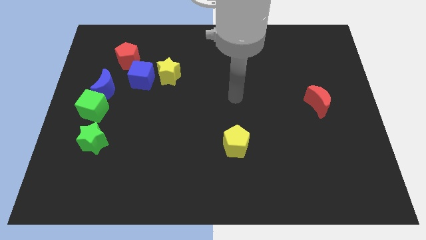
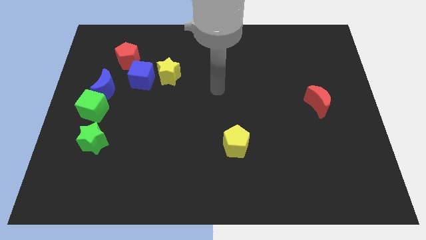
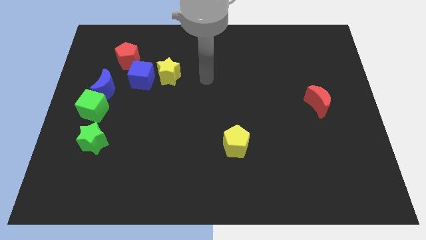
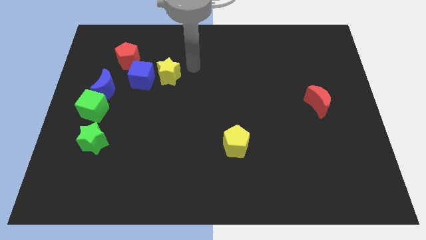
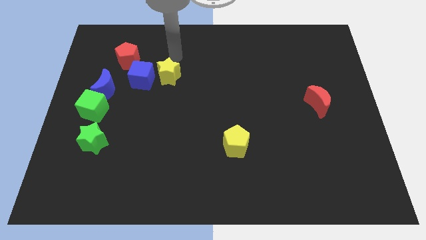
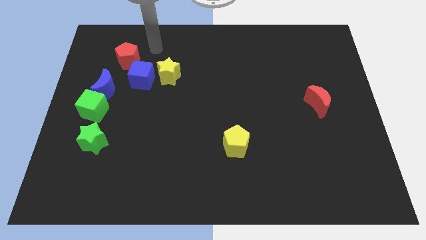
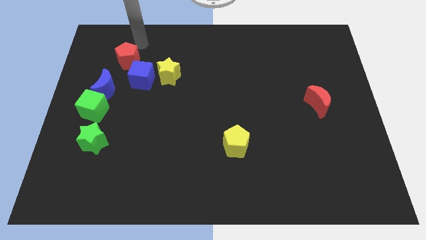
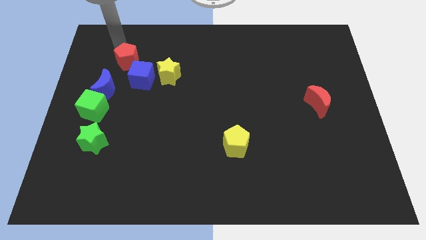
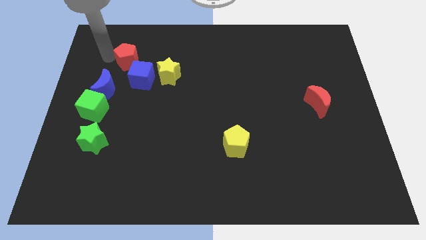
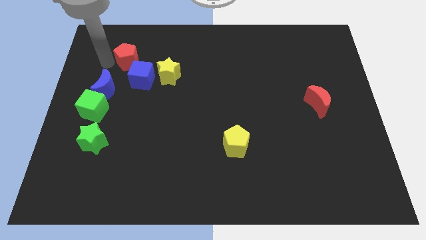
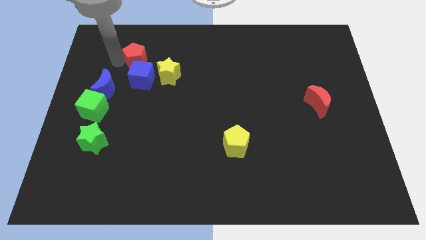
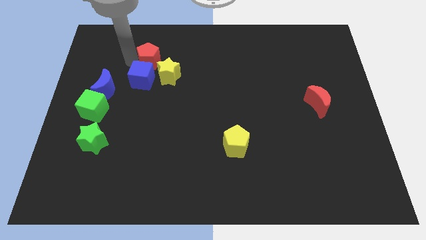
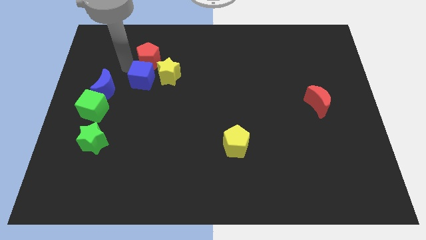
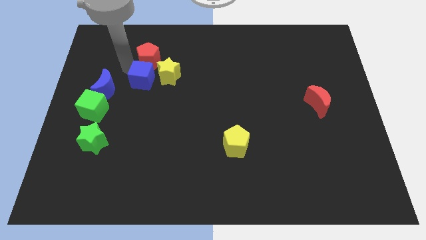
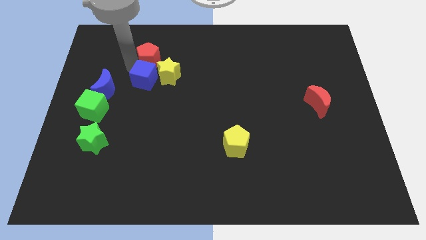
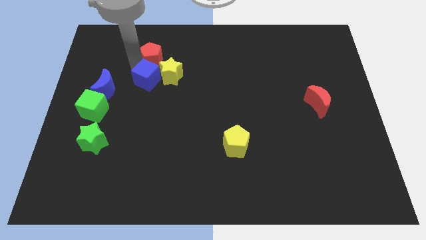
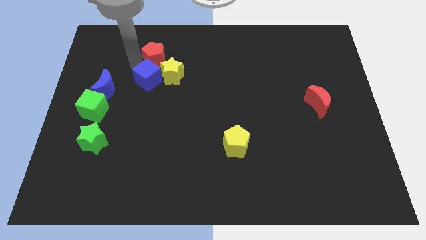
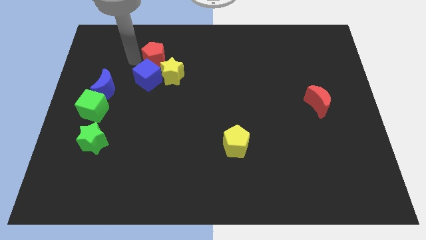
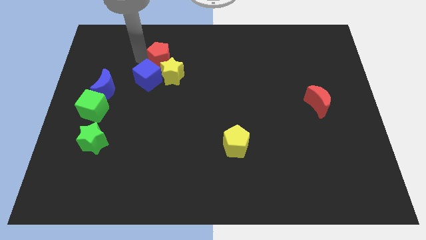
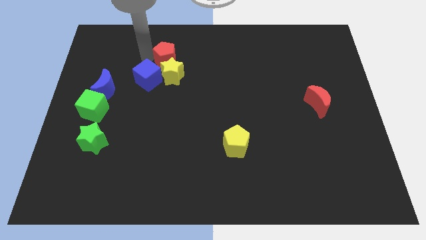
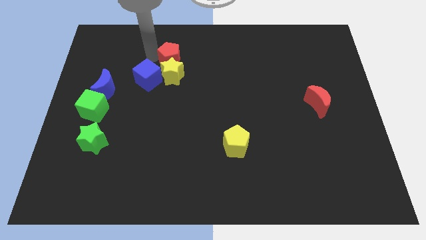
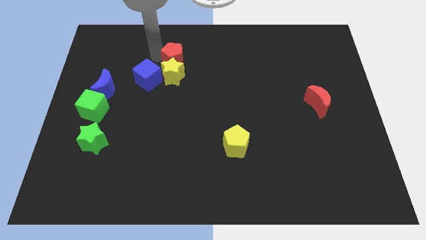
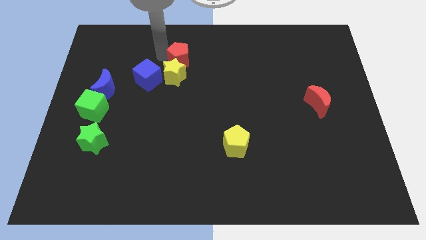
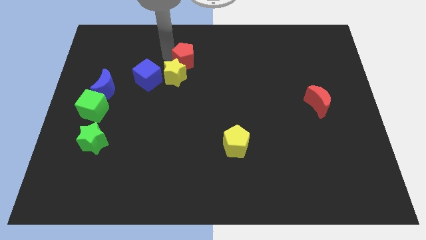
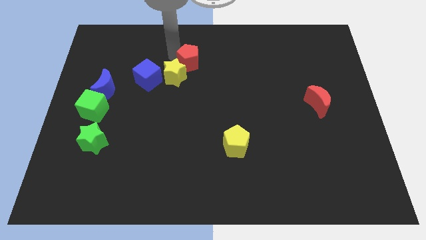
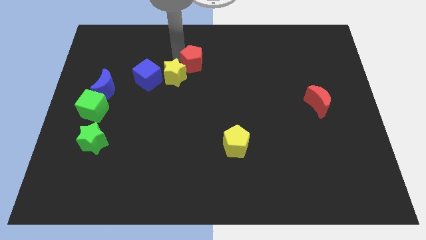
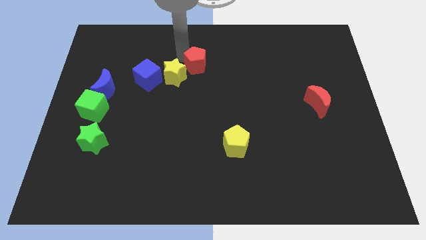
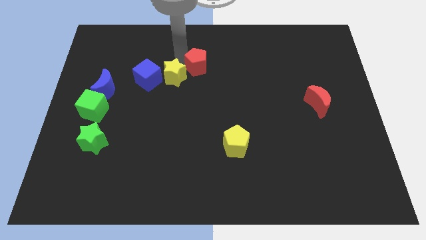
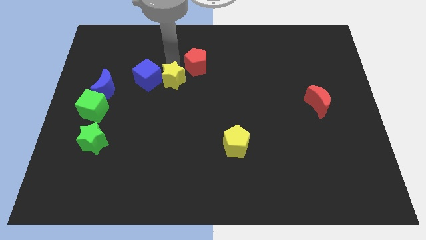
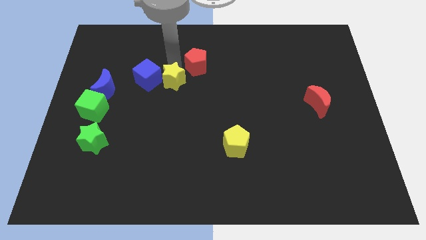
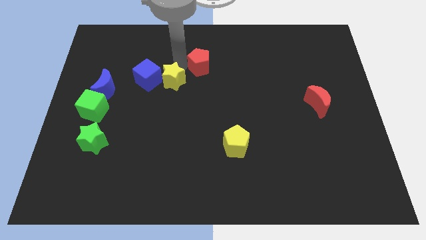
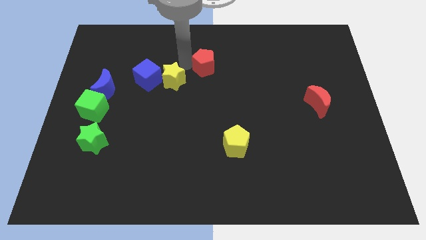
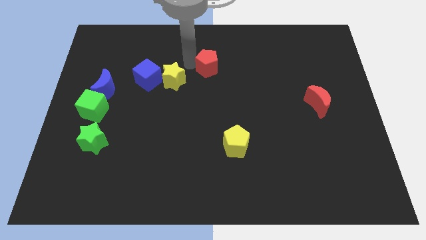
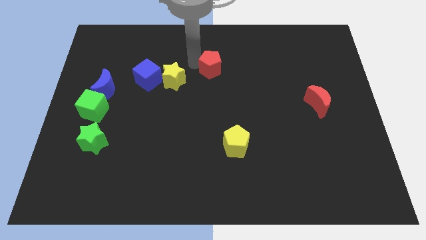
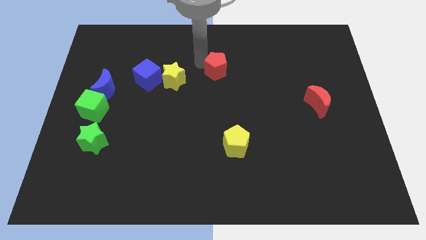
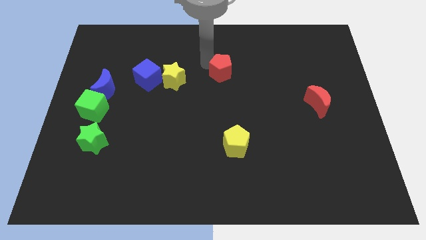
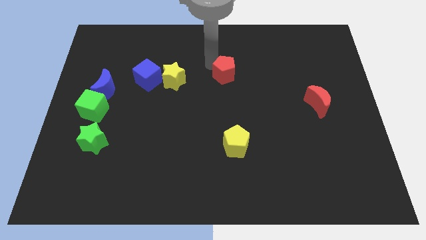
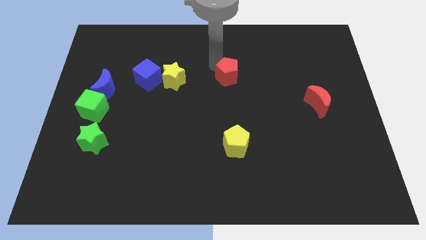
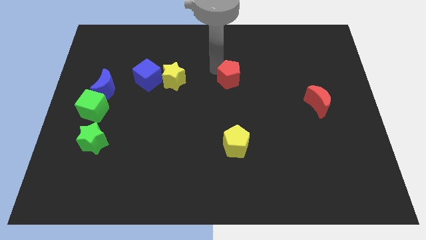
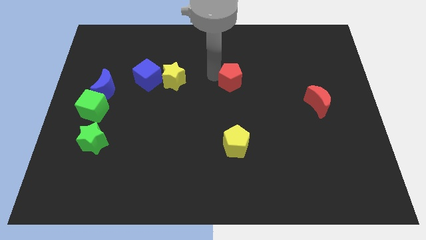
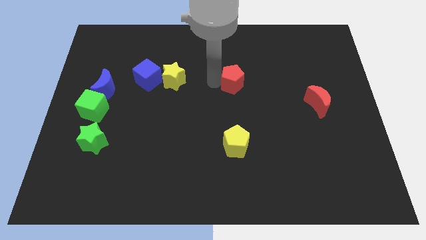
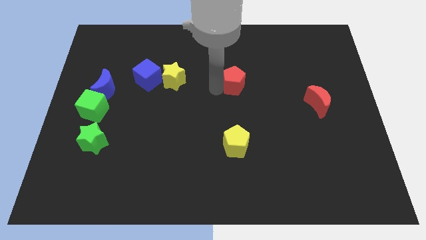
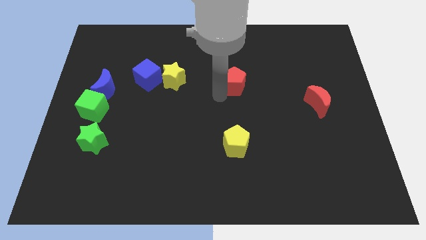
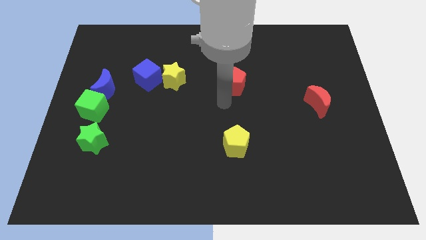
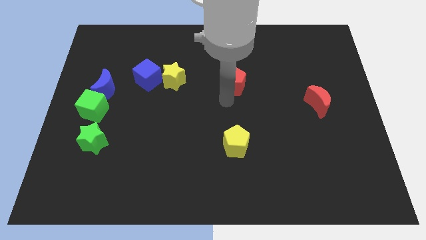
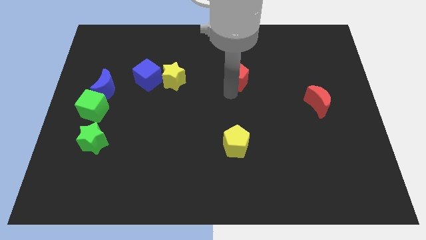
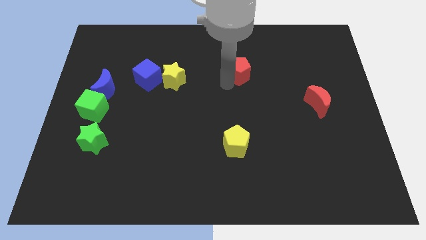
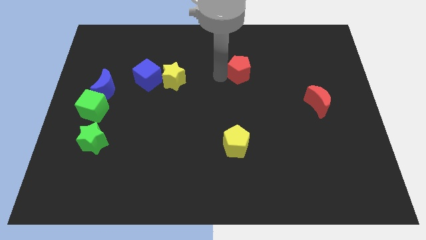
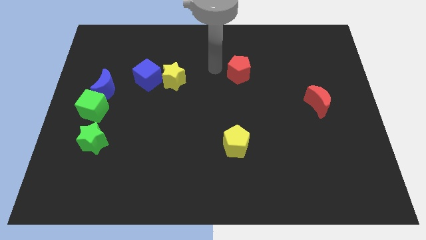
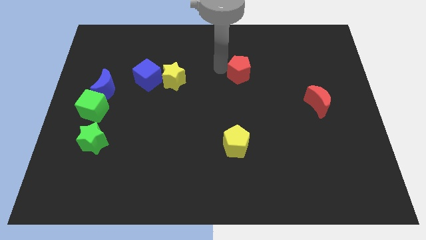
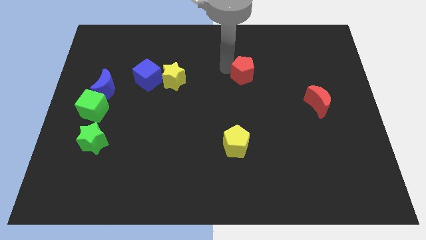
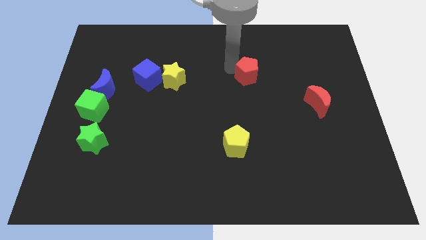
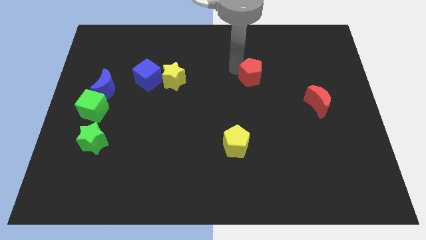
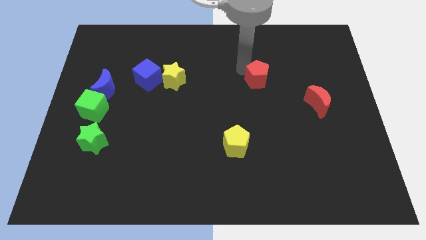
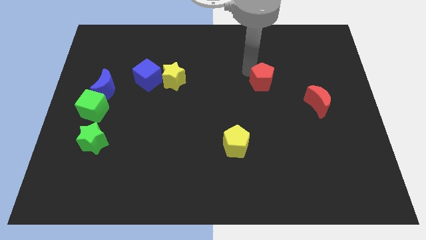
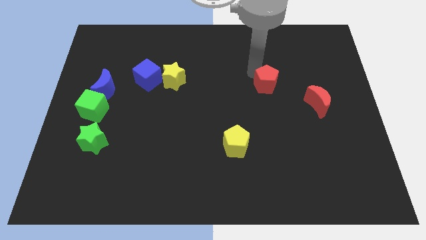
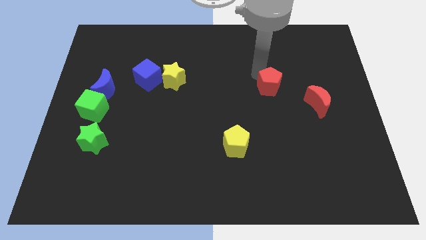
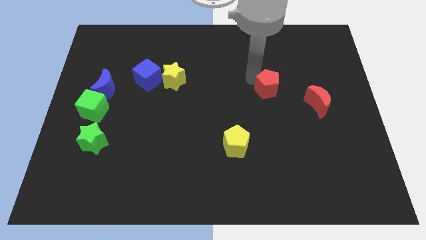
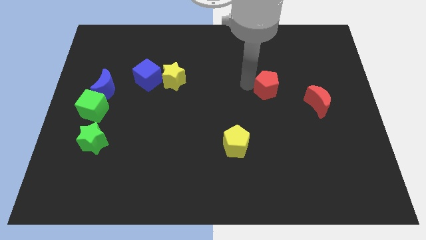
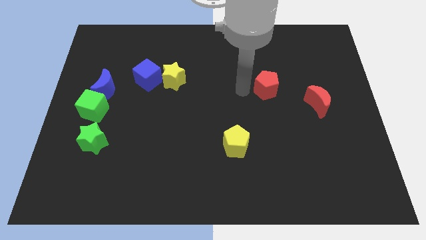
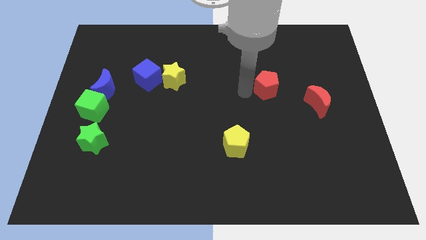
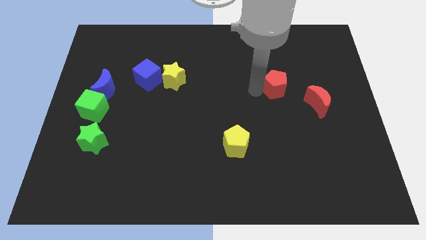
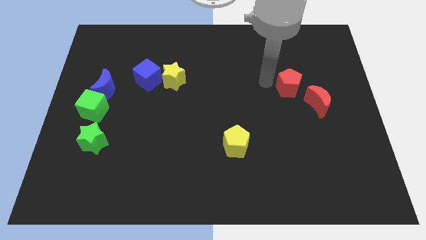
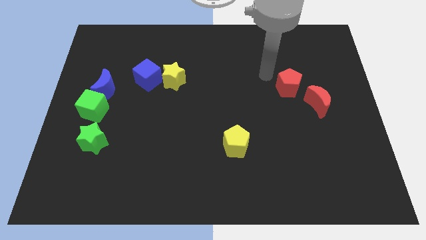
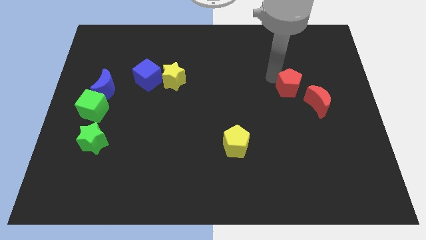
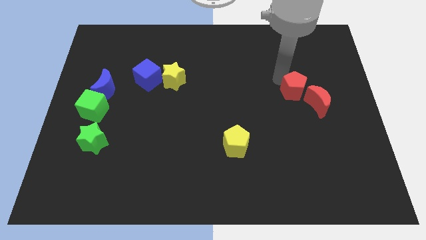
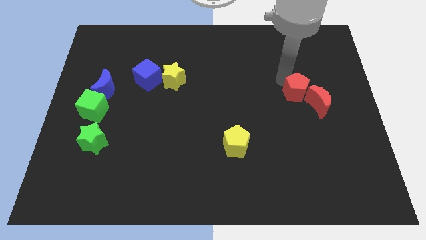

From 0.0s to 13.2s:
put the red pentagon to the red moon
